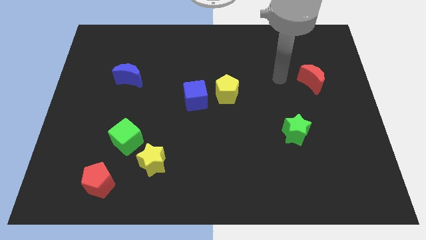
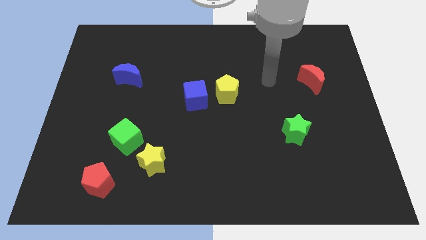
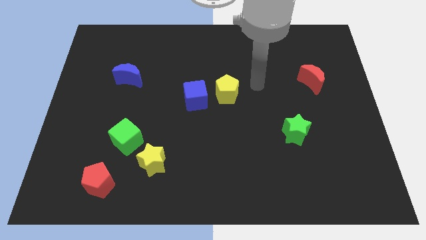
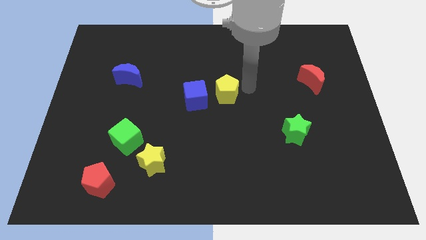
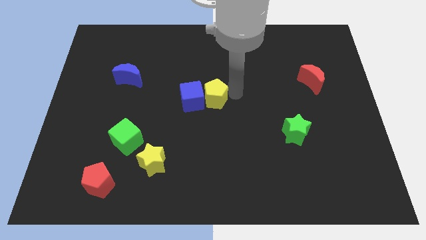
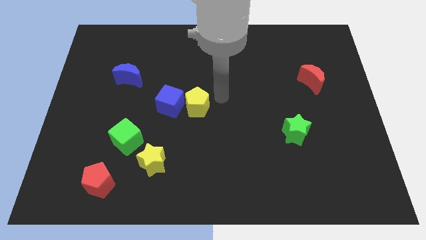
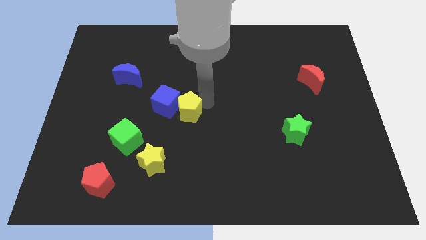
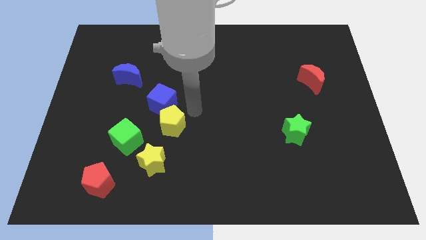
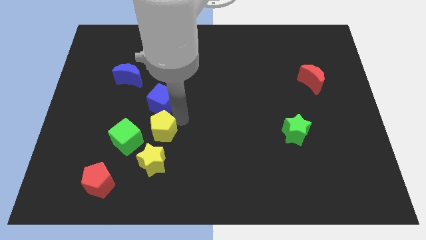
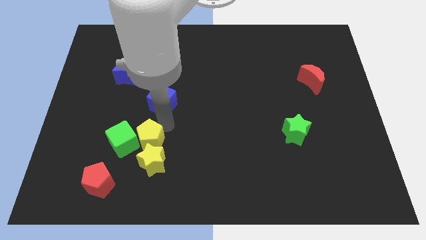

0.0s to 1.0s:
separate the blue cube from the yellow pentagon

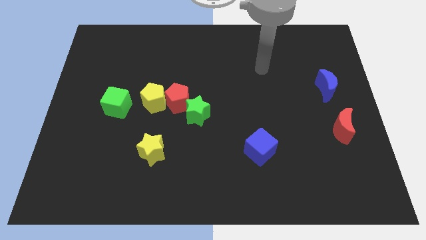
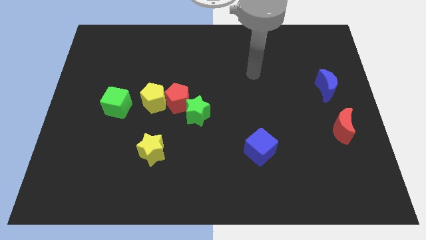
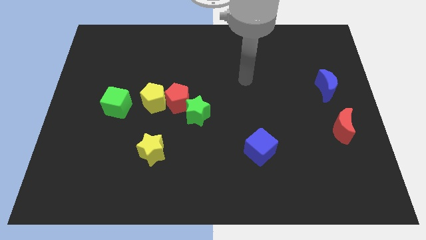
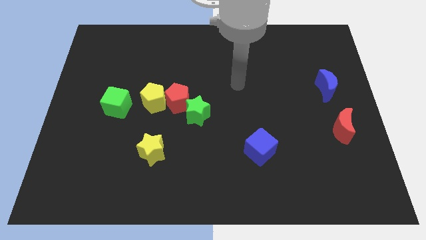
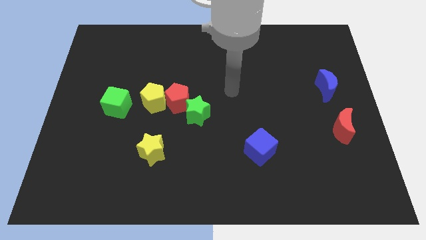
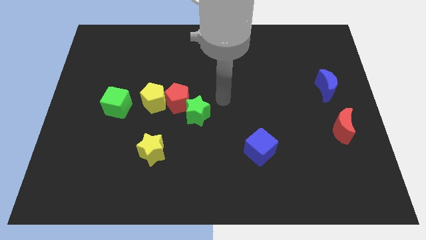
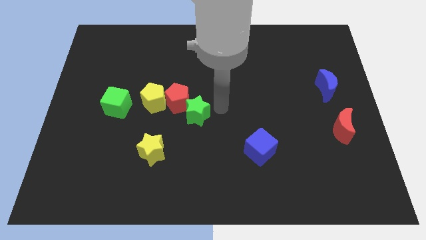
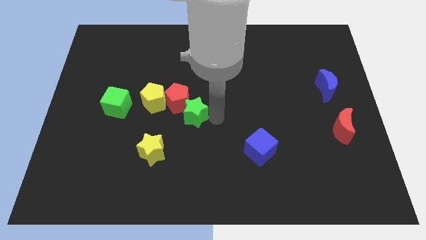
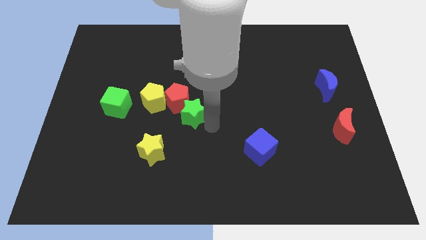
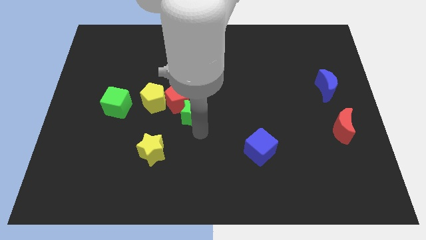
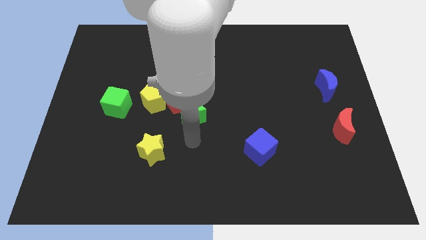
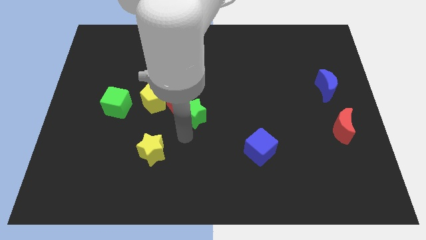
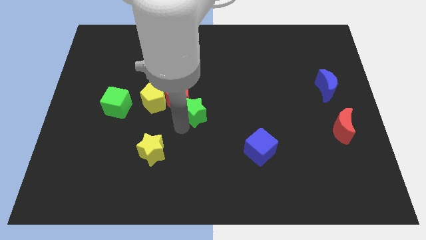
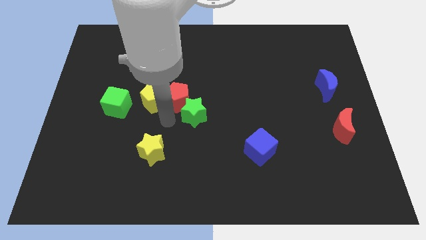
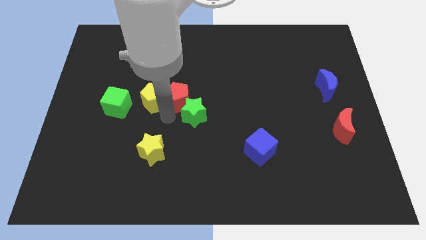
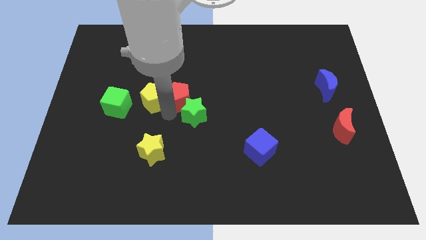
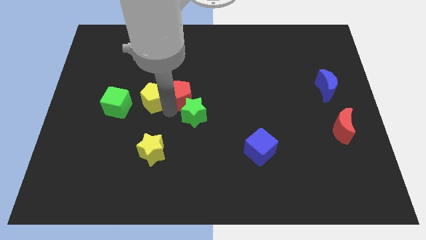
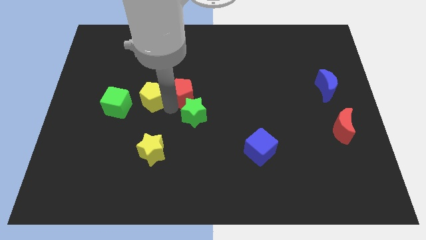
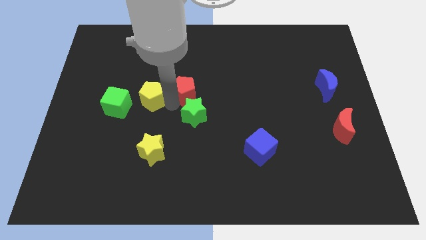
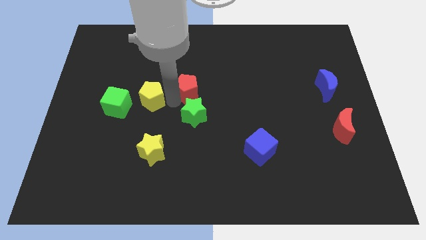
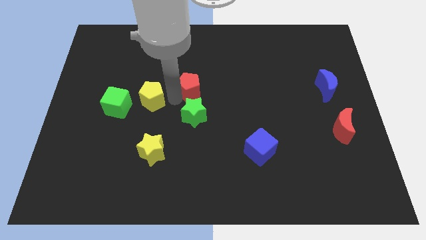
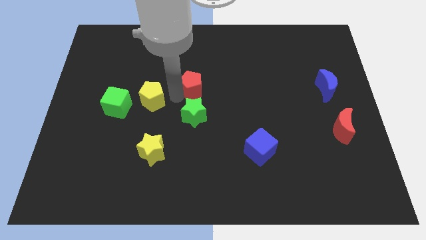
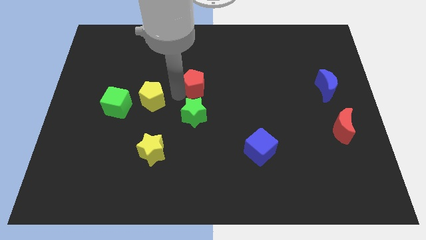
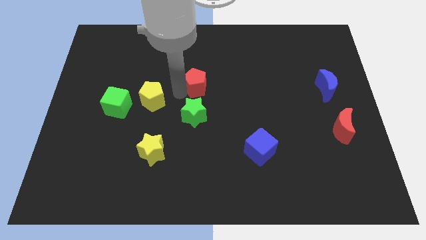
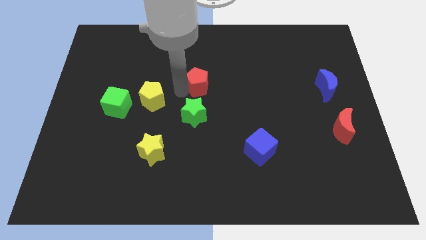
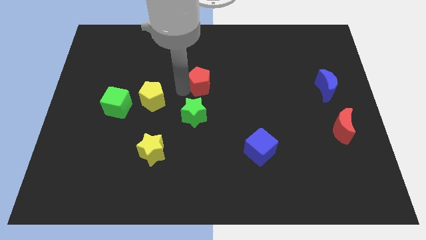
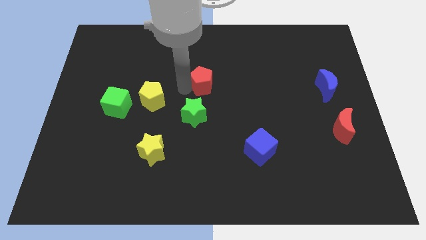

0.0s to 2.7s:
separate the red pentagon from the yellow pentagon and green star

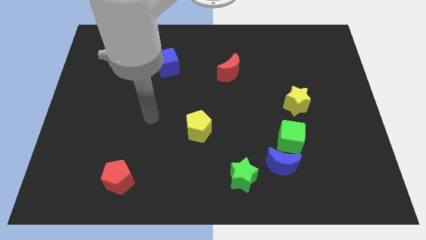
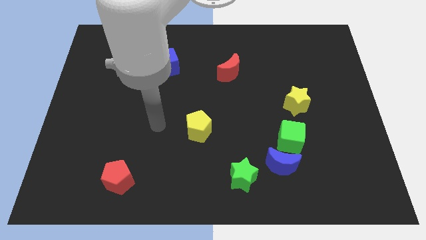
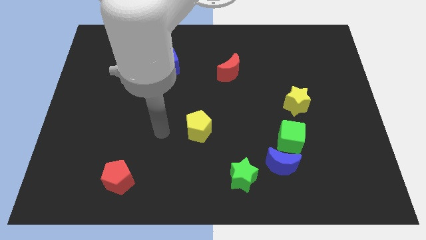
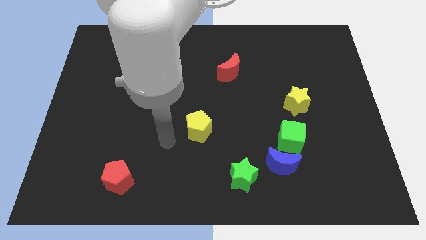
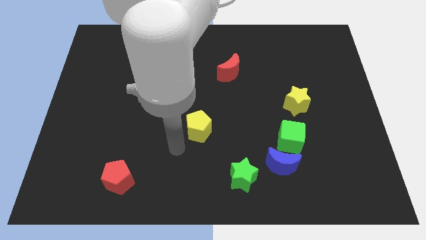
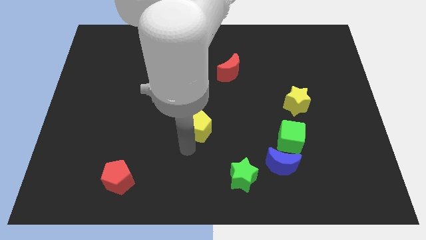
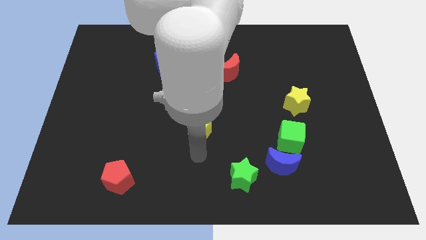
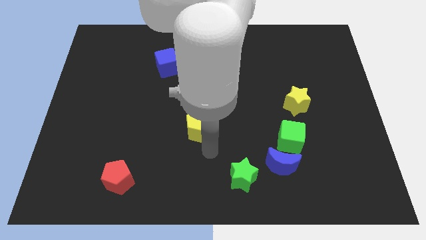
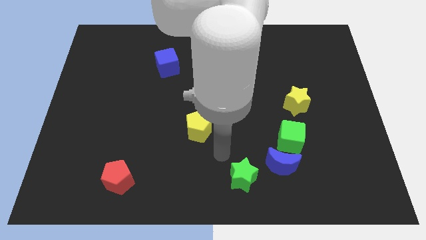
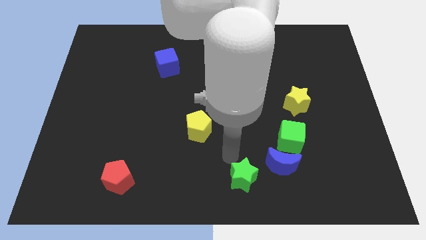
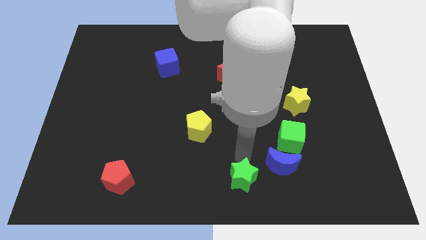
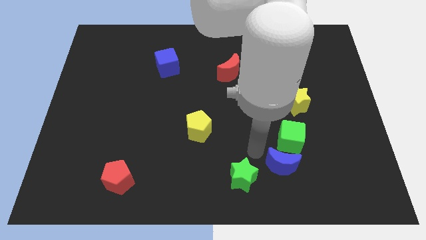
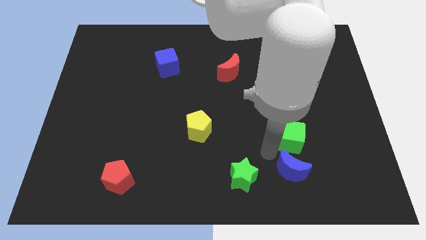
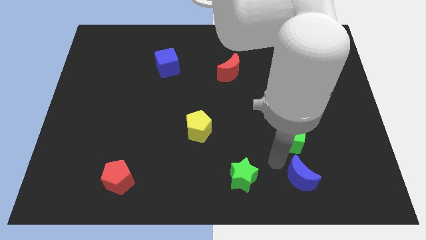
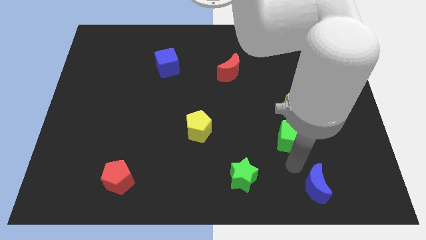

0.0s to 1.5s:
move the green cube away from the blue moon

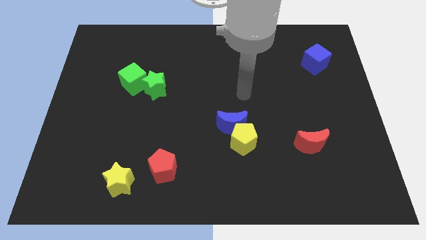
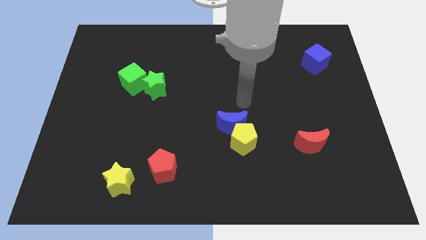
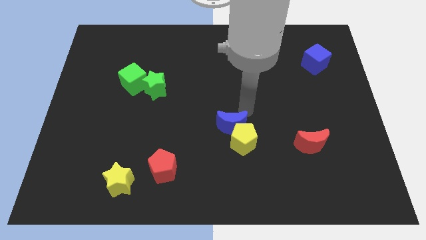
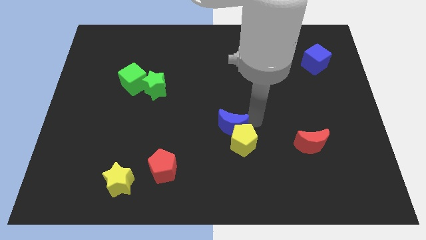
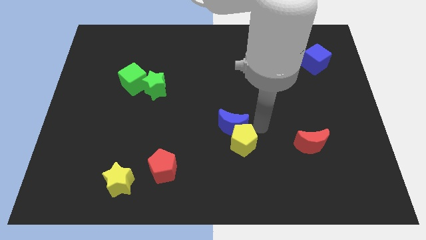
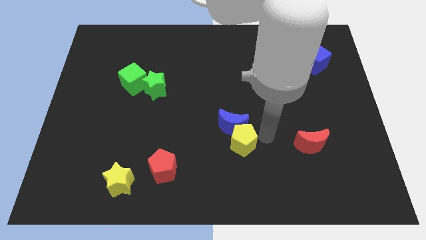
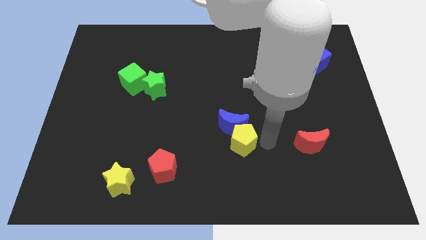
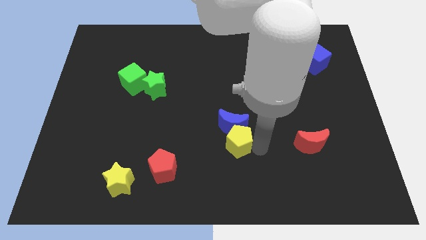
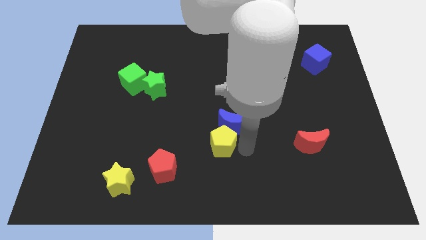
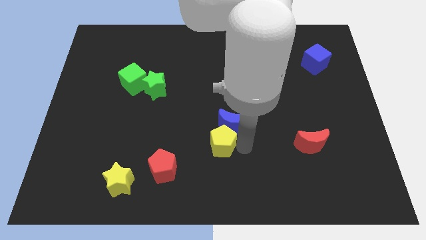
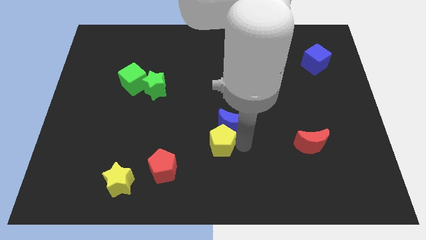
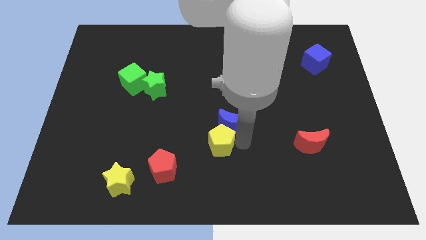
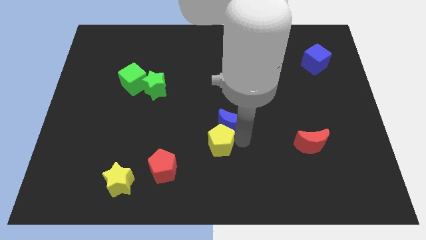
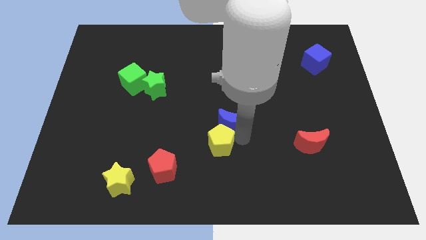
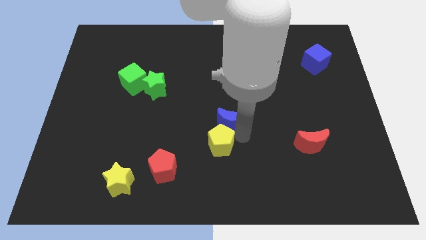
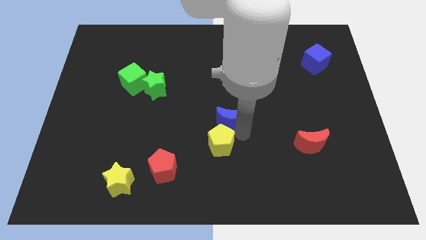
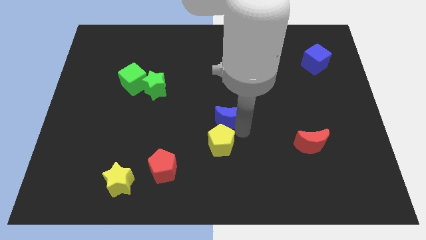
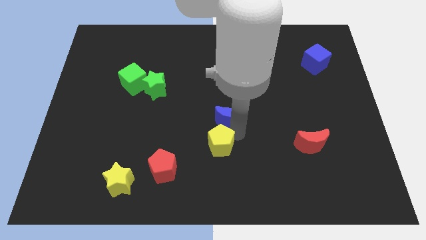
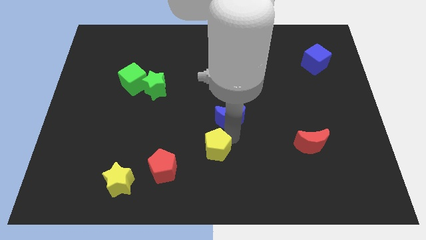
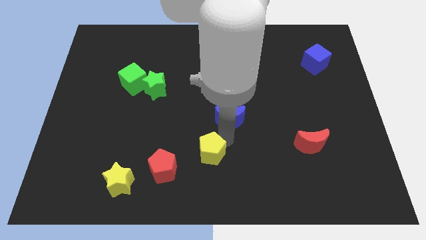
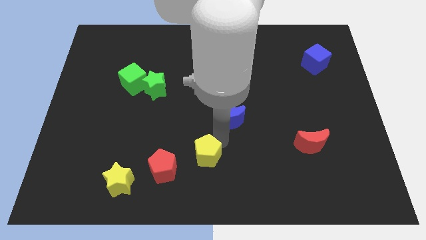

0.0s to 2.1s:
move the blue moon away from the yellow pentagon

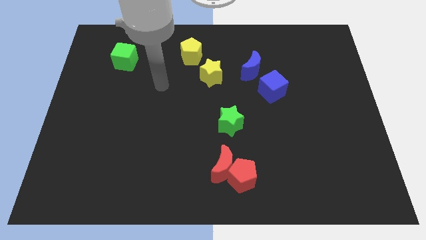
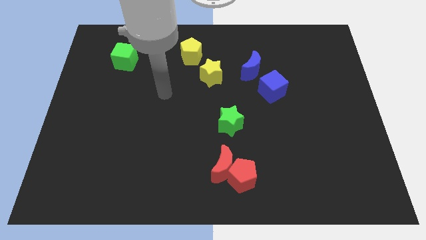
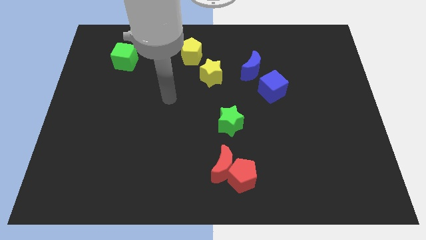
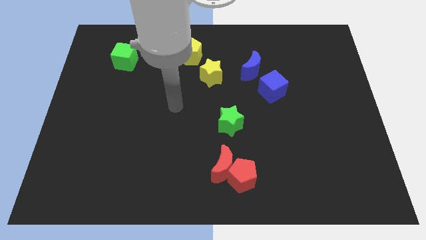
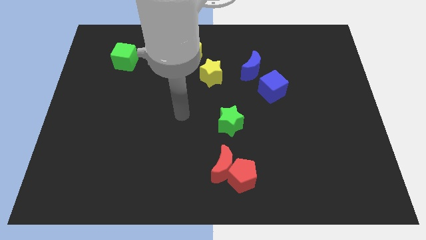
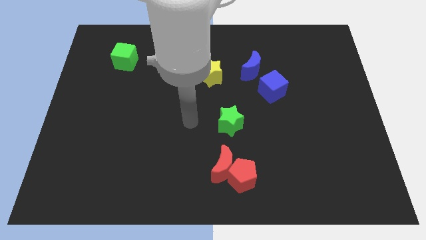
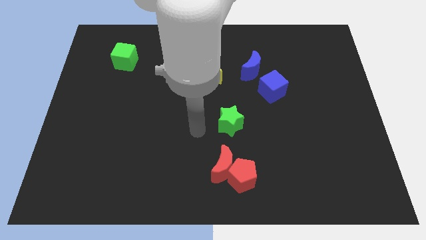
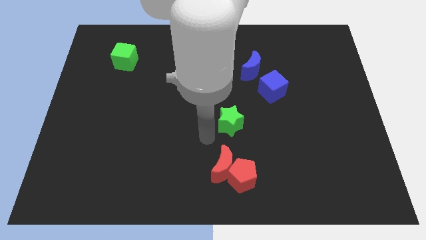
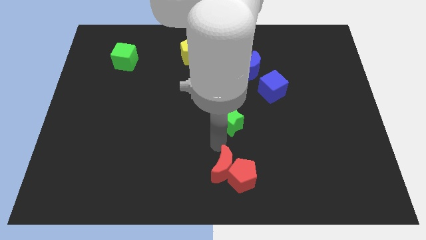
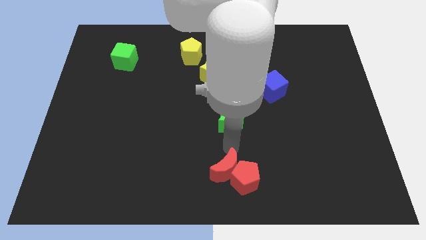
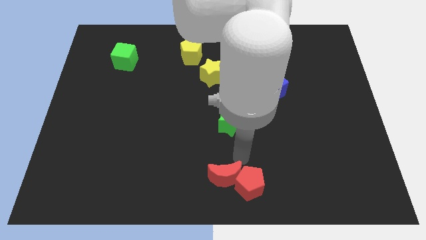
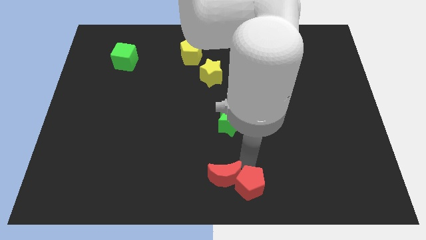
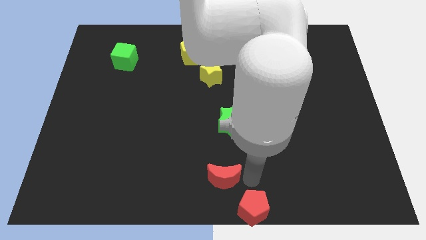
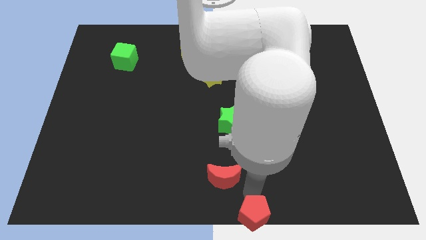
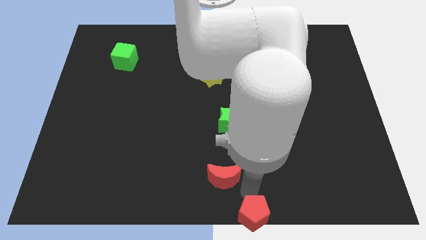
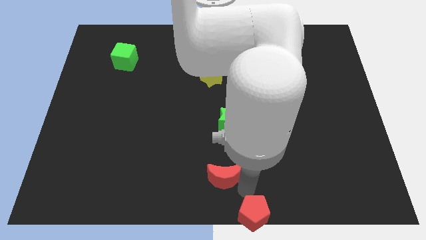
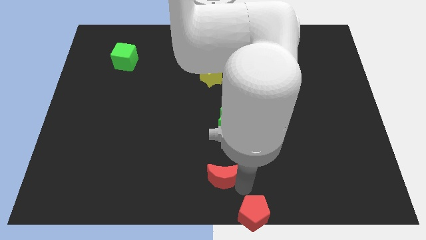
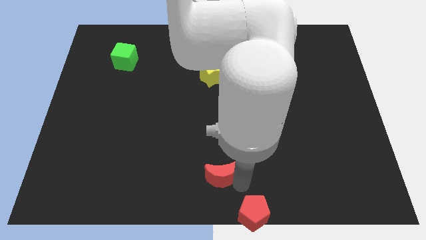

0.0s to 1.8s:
move the red moon away from the red pentagon
